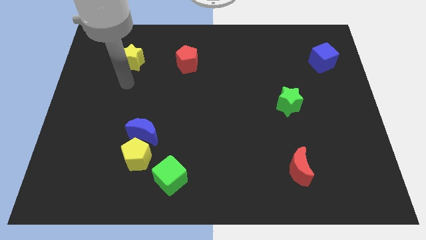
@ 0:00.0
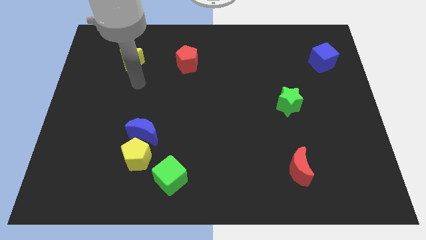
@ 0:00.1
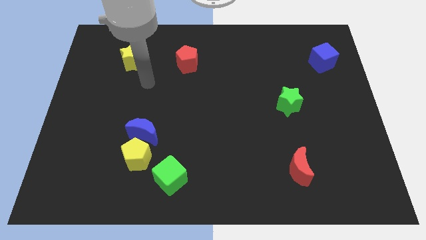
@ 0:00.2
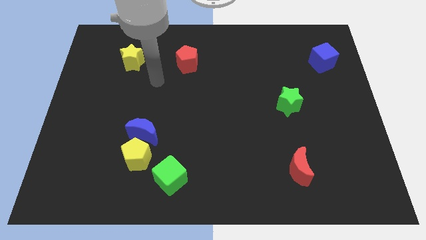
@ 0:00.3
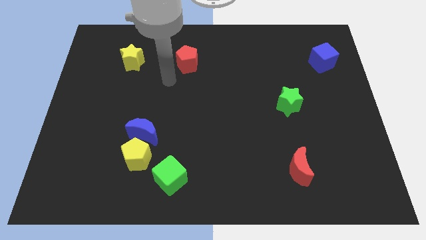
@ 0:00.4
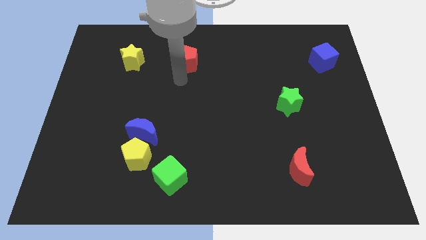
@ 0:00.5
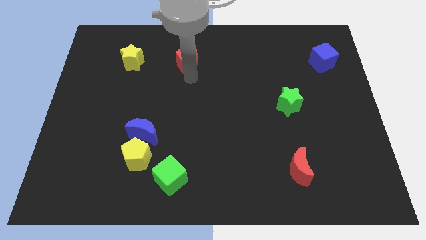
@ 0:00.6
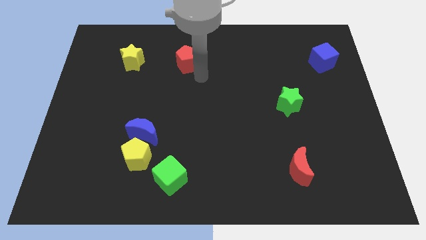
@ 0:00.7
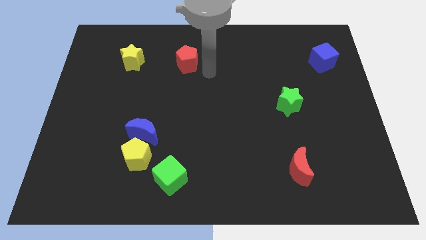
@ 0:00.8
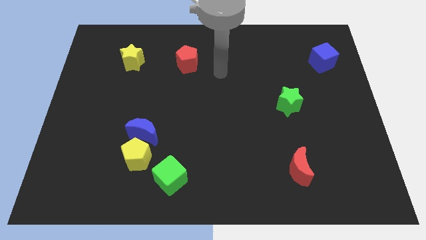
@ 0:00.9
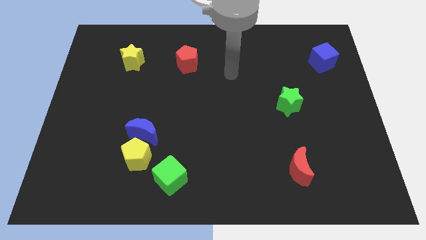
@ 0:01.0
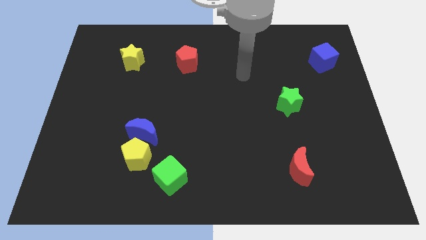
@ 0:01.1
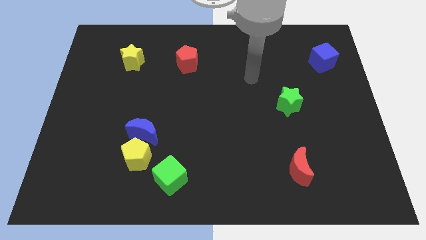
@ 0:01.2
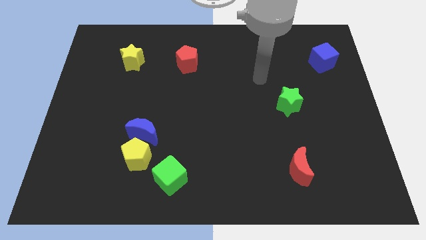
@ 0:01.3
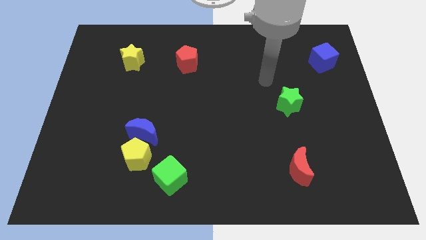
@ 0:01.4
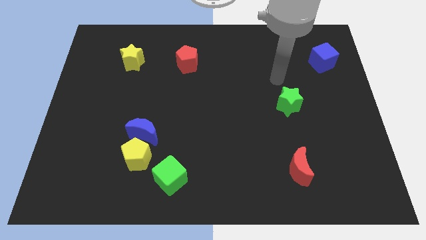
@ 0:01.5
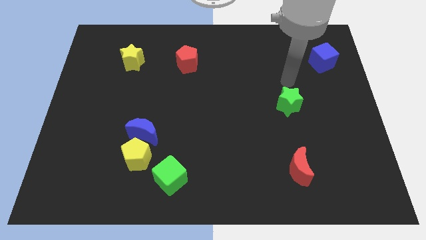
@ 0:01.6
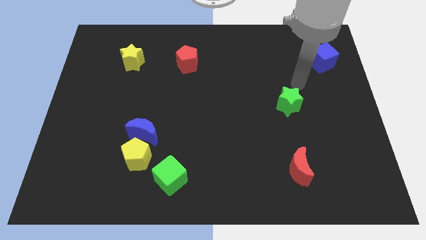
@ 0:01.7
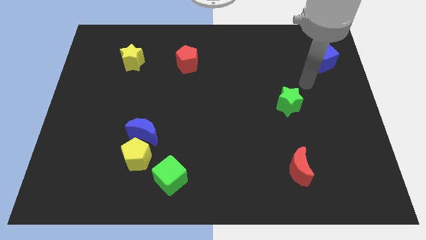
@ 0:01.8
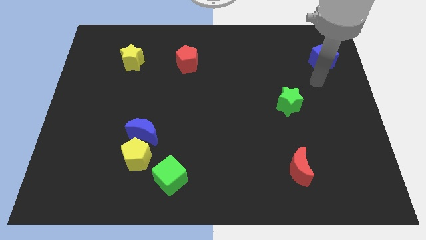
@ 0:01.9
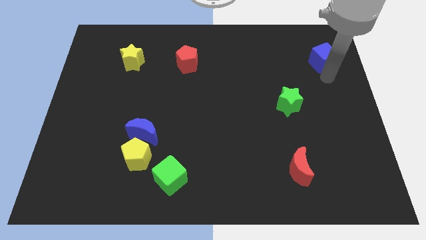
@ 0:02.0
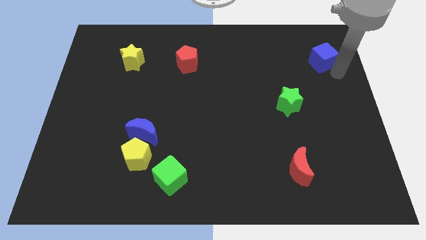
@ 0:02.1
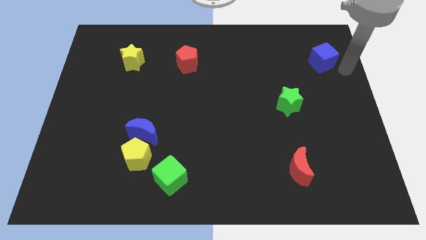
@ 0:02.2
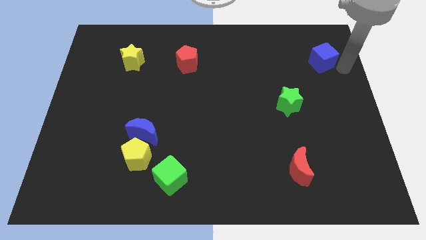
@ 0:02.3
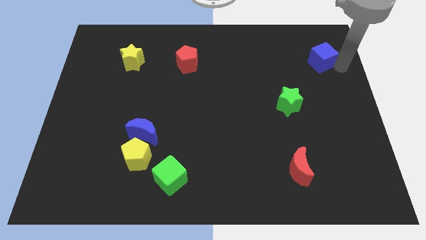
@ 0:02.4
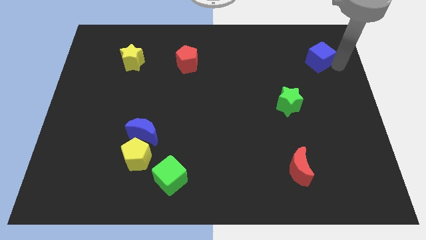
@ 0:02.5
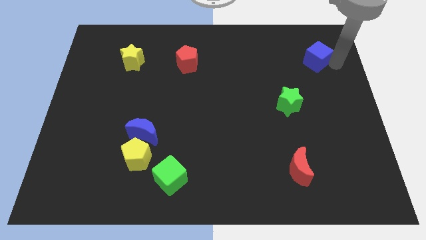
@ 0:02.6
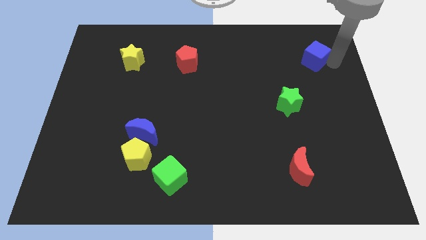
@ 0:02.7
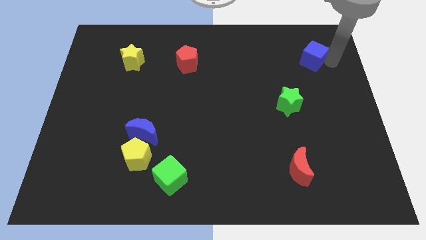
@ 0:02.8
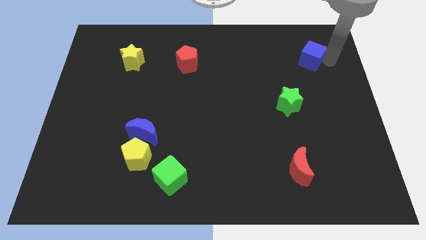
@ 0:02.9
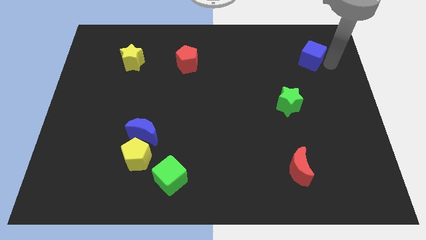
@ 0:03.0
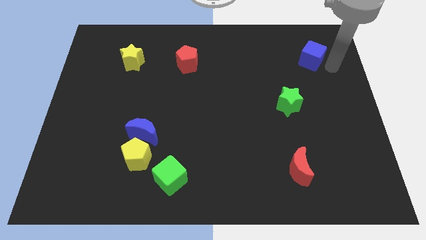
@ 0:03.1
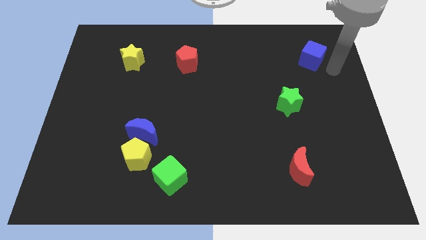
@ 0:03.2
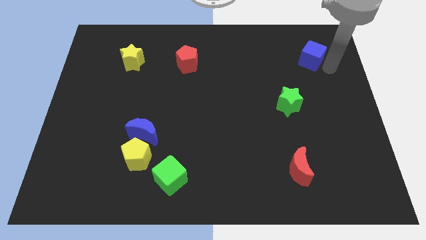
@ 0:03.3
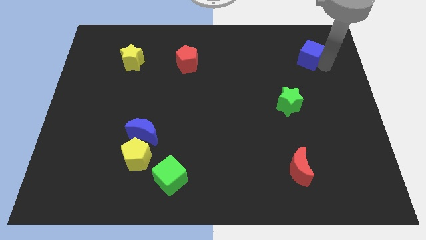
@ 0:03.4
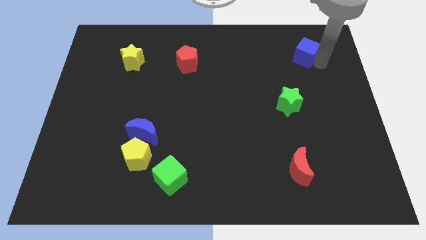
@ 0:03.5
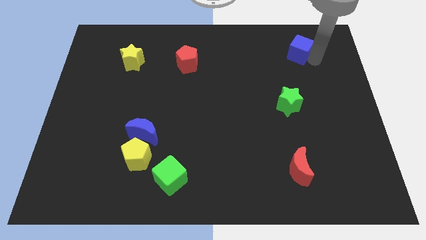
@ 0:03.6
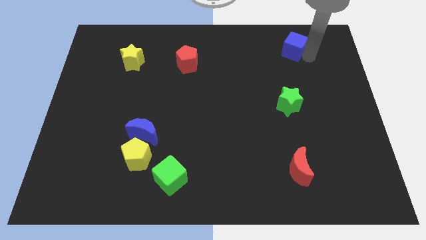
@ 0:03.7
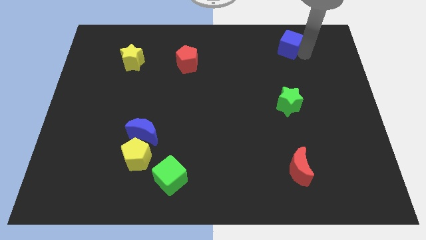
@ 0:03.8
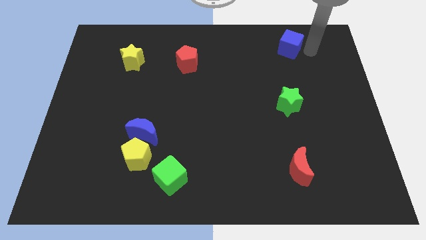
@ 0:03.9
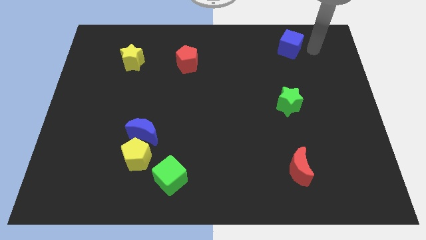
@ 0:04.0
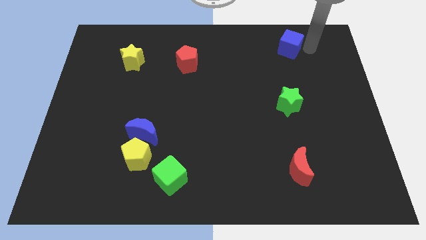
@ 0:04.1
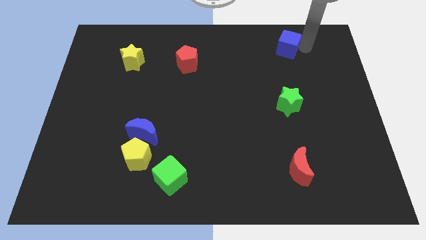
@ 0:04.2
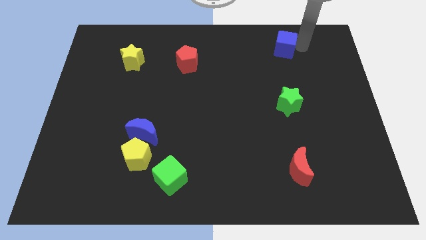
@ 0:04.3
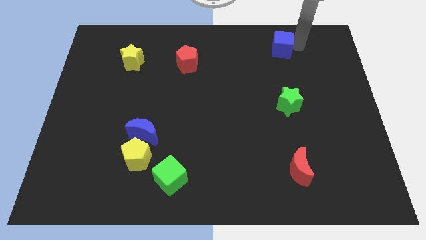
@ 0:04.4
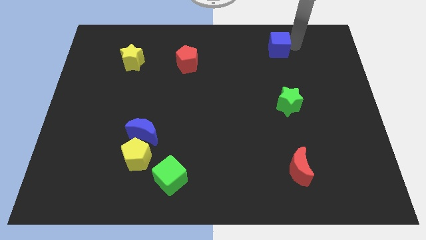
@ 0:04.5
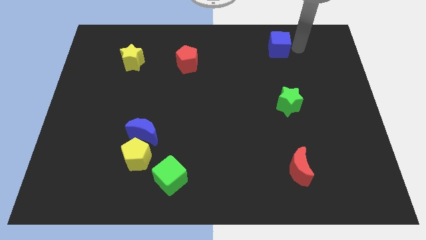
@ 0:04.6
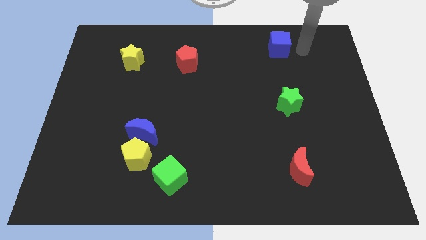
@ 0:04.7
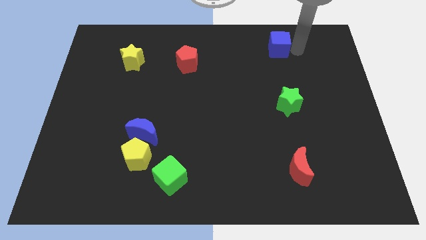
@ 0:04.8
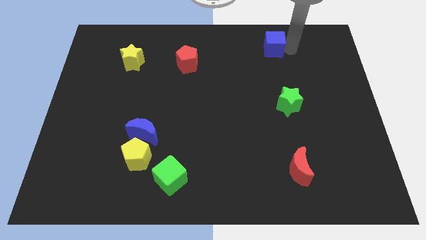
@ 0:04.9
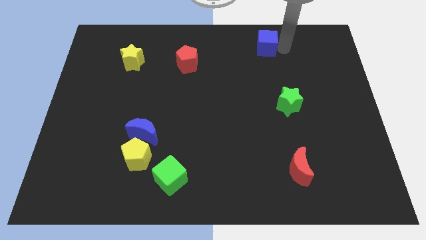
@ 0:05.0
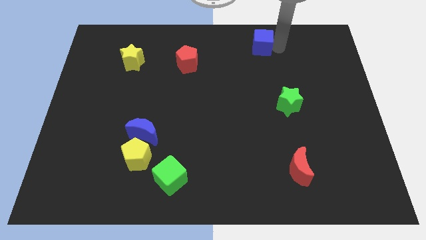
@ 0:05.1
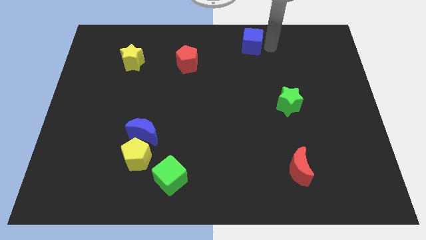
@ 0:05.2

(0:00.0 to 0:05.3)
move the blue cube to the towards your base

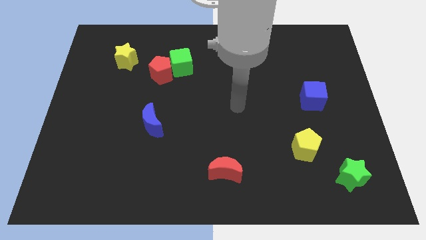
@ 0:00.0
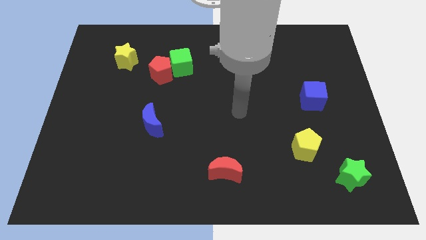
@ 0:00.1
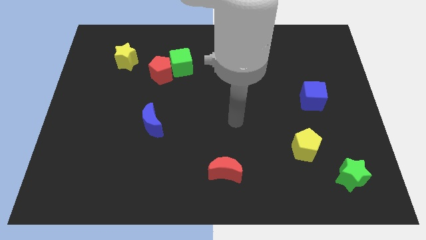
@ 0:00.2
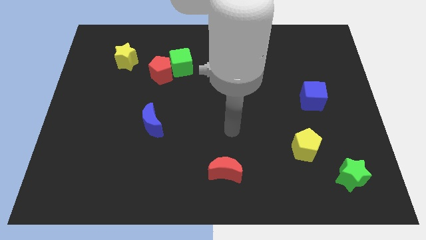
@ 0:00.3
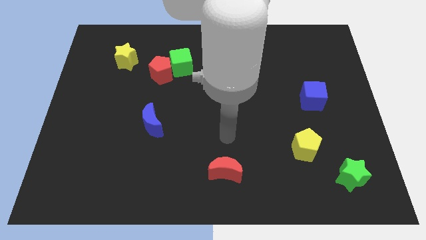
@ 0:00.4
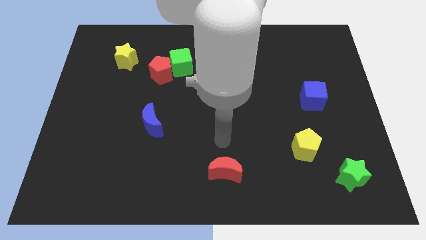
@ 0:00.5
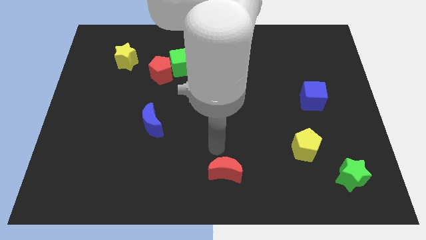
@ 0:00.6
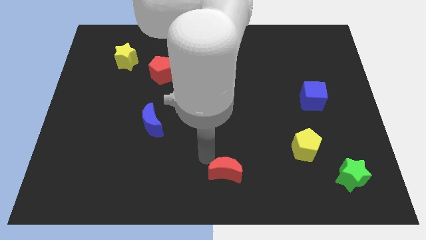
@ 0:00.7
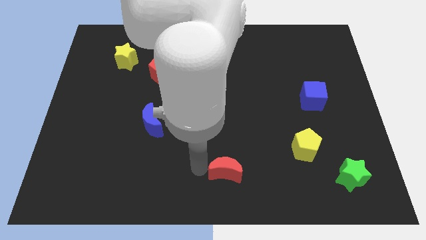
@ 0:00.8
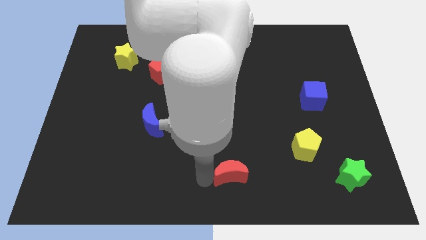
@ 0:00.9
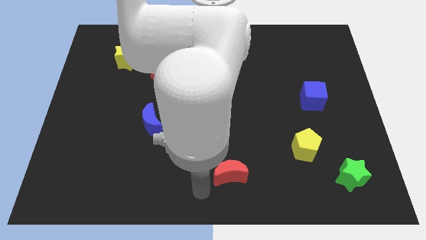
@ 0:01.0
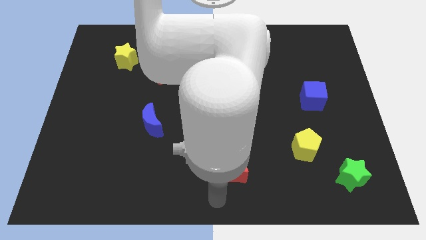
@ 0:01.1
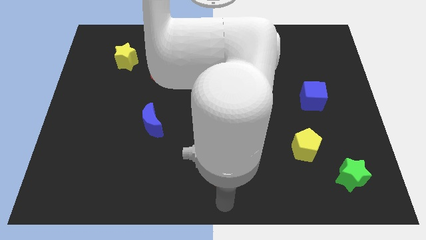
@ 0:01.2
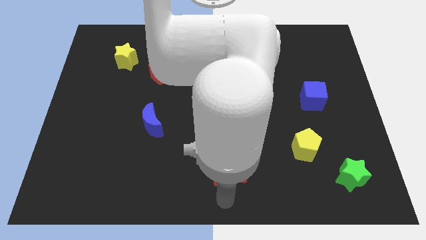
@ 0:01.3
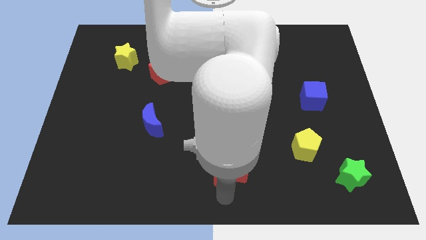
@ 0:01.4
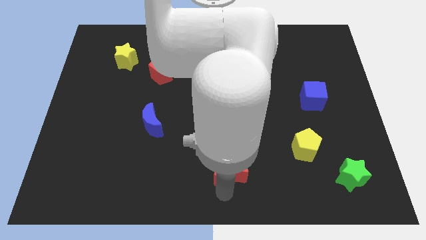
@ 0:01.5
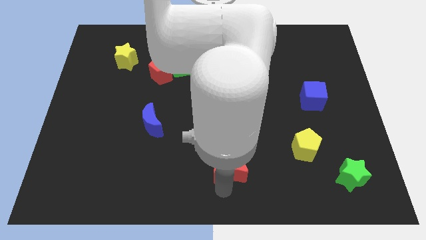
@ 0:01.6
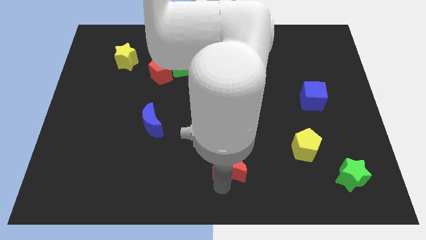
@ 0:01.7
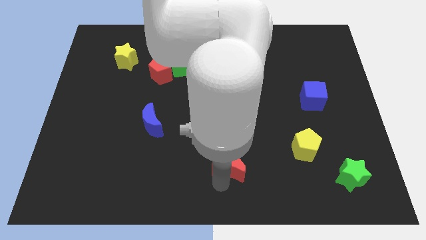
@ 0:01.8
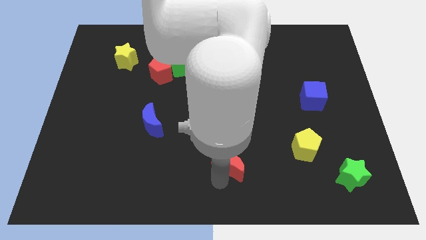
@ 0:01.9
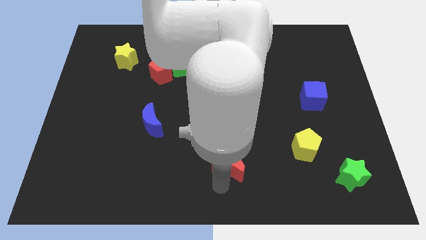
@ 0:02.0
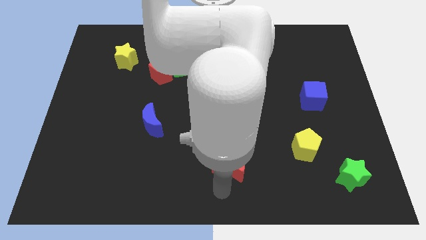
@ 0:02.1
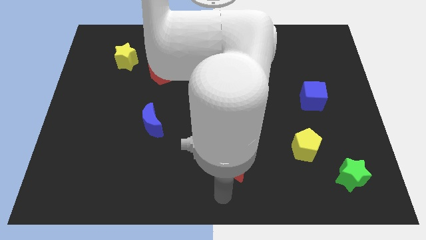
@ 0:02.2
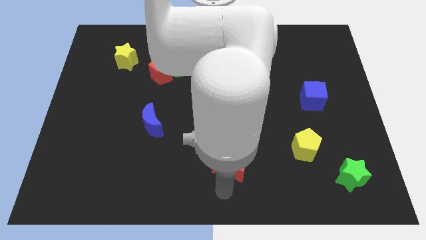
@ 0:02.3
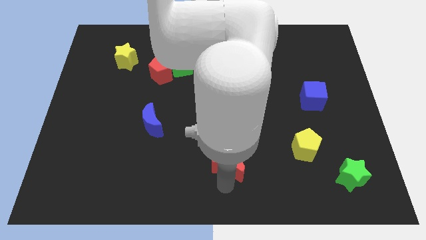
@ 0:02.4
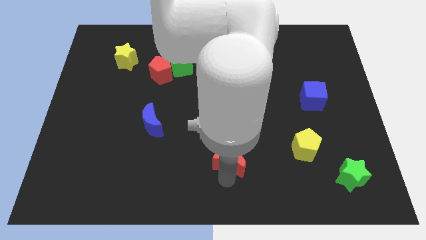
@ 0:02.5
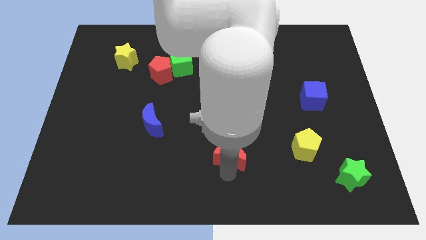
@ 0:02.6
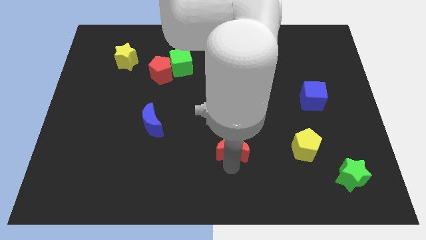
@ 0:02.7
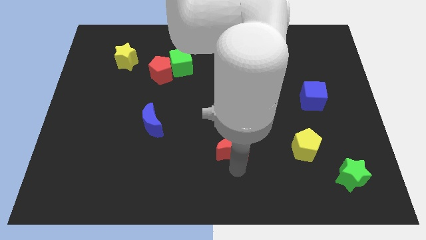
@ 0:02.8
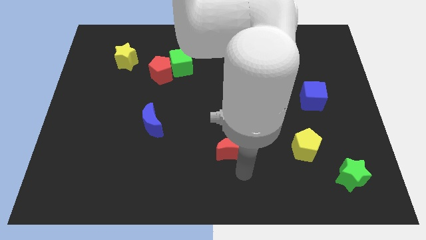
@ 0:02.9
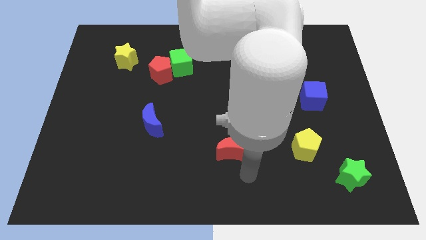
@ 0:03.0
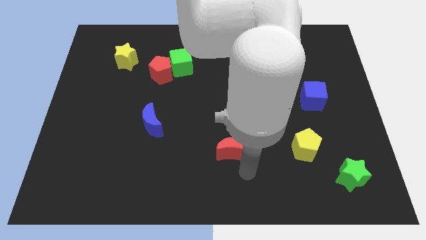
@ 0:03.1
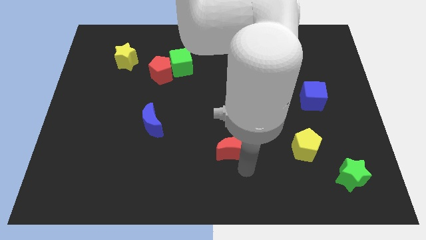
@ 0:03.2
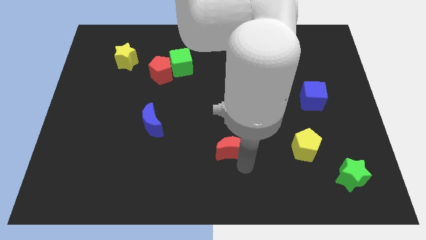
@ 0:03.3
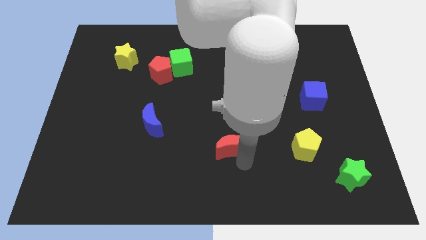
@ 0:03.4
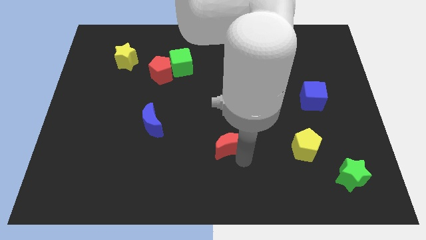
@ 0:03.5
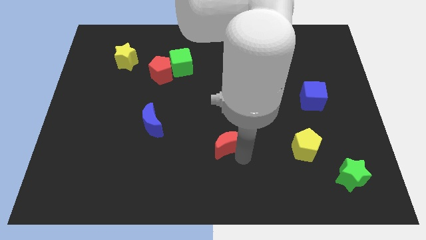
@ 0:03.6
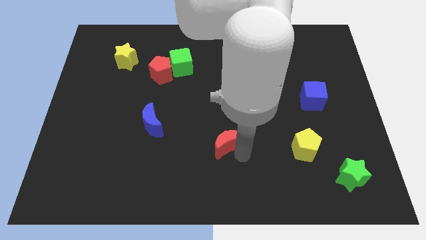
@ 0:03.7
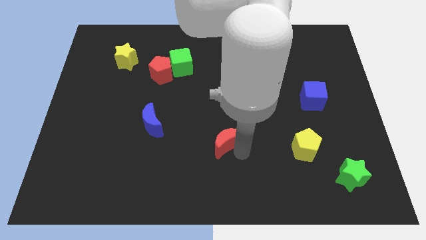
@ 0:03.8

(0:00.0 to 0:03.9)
put the red moon to the middle of the board
